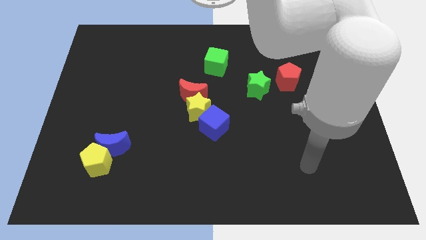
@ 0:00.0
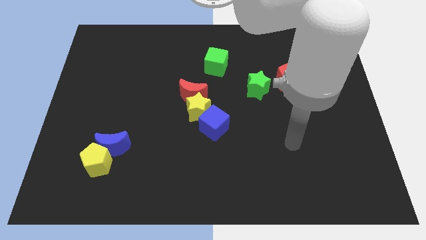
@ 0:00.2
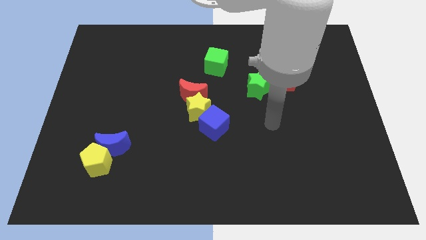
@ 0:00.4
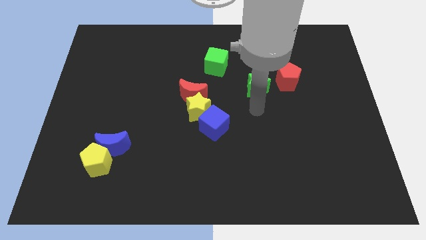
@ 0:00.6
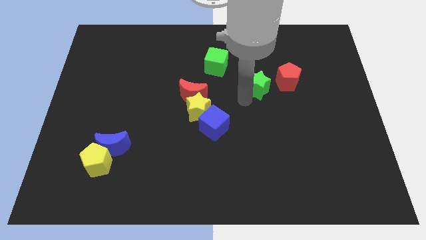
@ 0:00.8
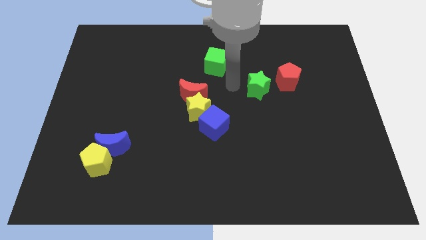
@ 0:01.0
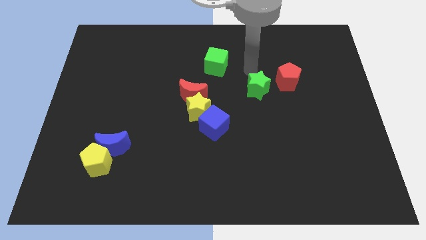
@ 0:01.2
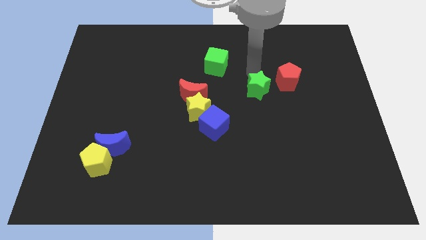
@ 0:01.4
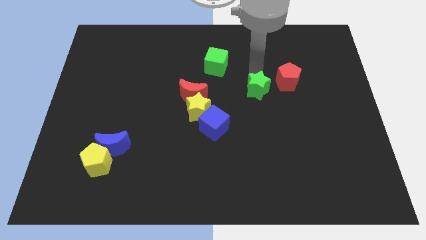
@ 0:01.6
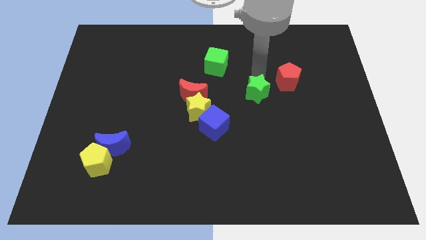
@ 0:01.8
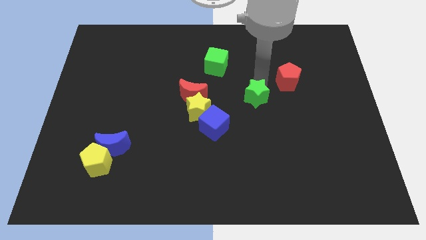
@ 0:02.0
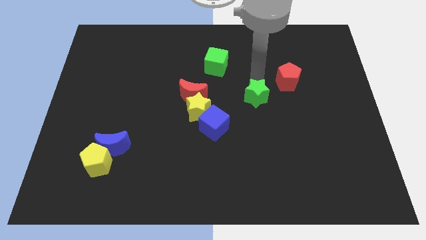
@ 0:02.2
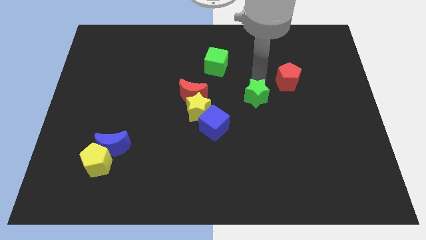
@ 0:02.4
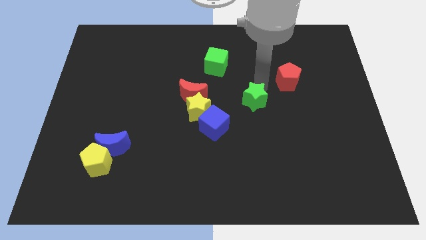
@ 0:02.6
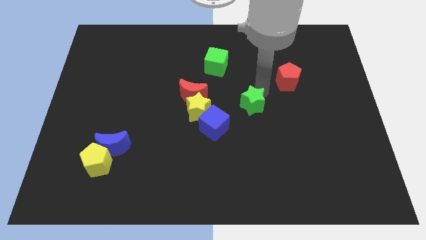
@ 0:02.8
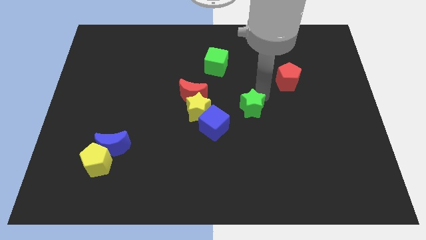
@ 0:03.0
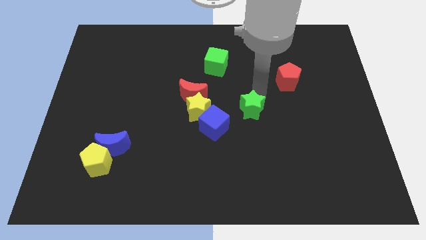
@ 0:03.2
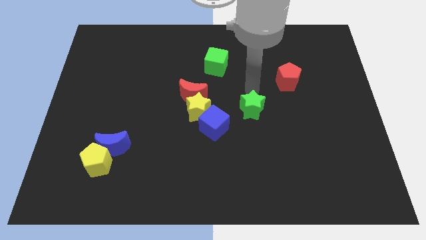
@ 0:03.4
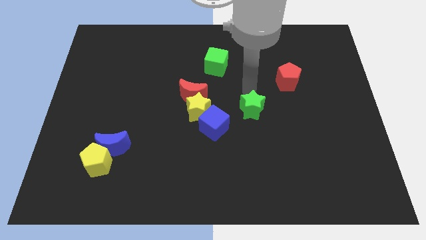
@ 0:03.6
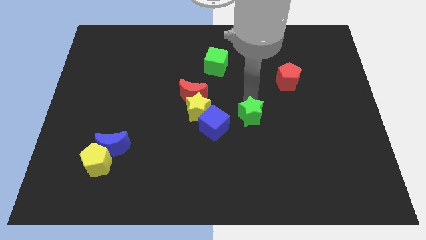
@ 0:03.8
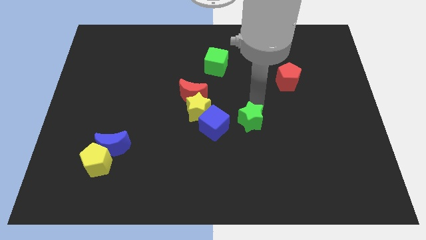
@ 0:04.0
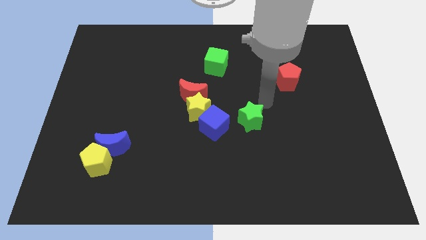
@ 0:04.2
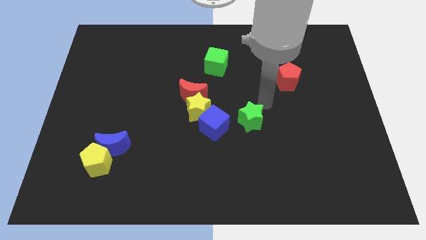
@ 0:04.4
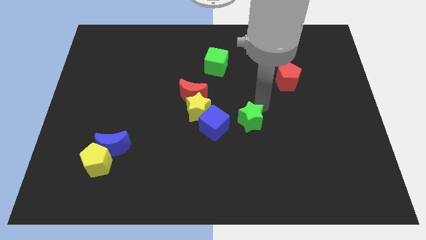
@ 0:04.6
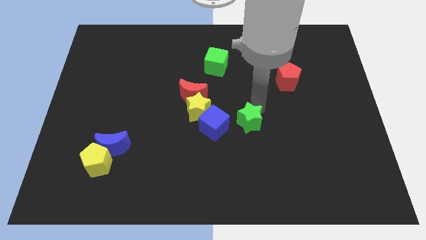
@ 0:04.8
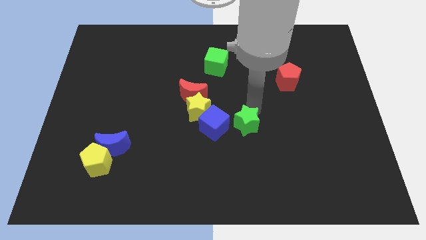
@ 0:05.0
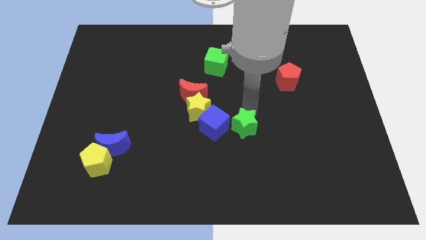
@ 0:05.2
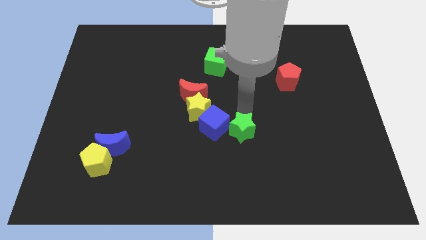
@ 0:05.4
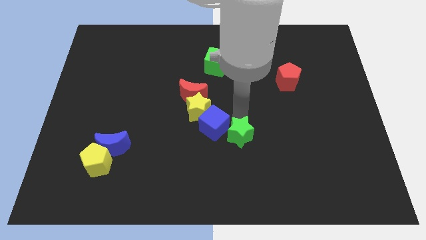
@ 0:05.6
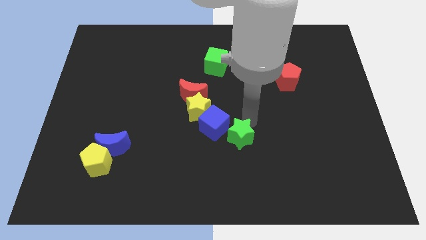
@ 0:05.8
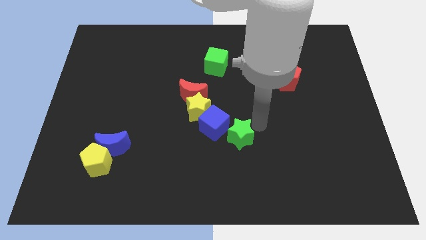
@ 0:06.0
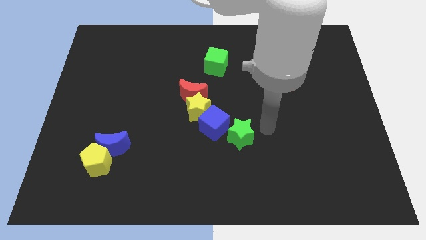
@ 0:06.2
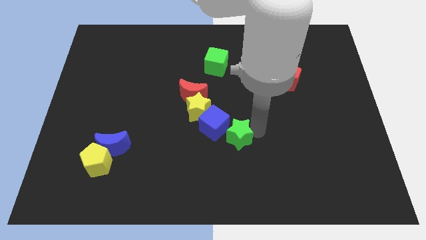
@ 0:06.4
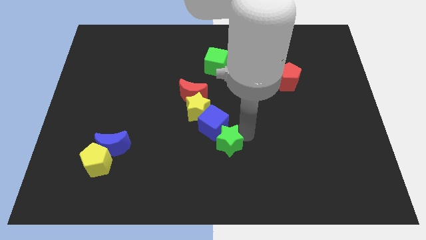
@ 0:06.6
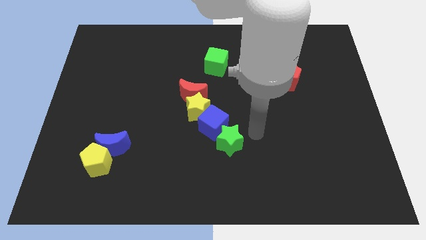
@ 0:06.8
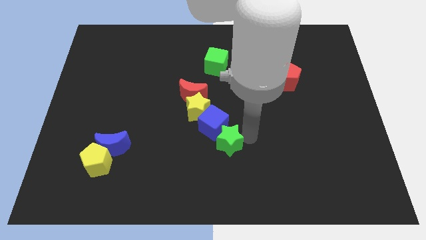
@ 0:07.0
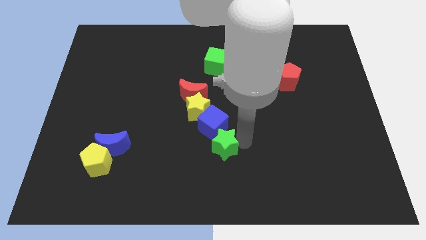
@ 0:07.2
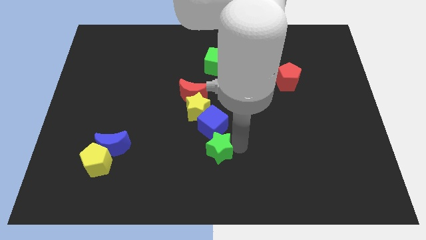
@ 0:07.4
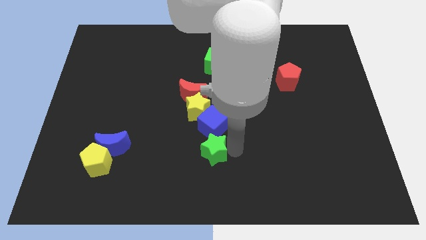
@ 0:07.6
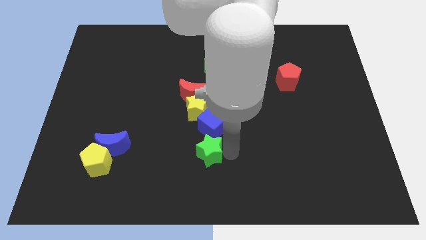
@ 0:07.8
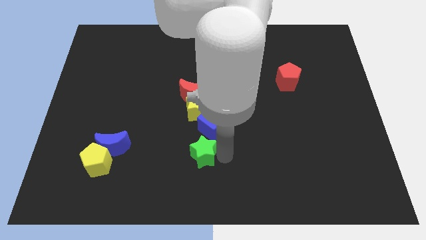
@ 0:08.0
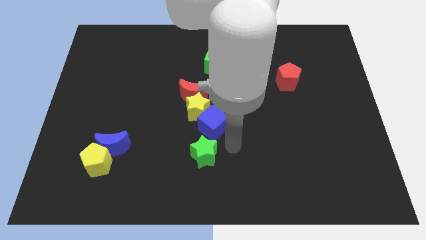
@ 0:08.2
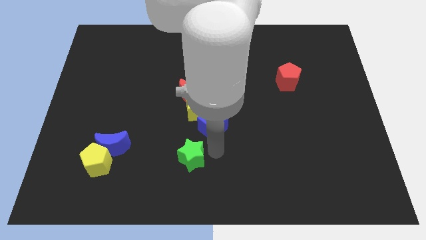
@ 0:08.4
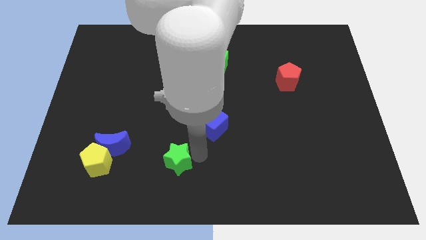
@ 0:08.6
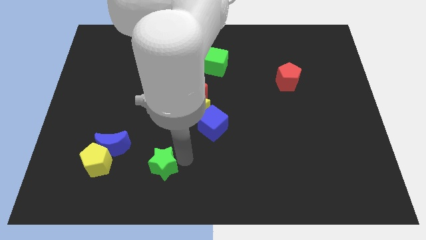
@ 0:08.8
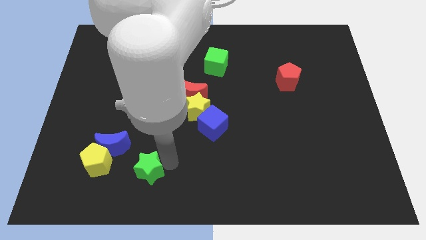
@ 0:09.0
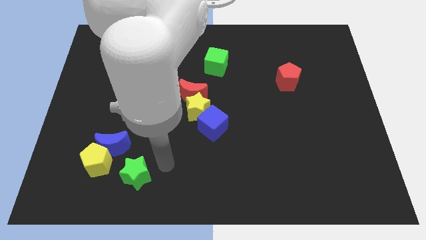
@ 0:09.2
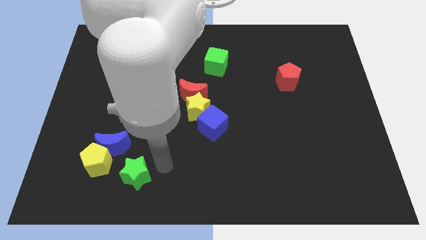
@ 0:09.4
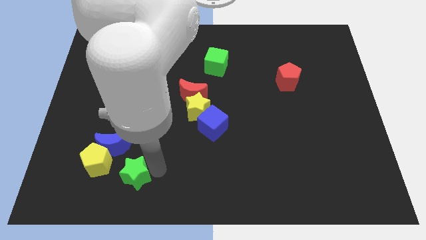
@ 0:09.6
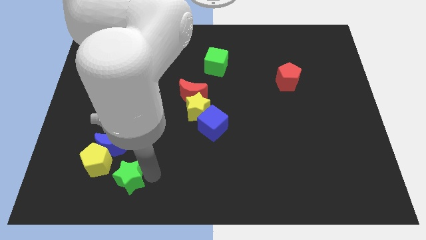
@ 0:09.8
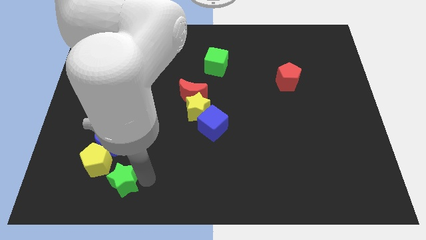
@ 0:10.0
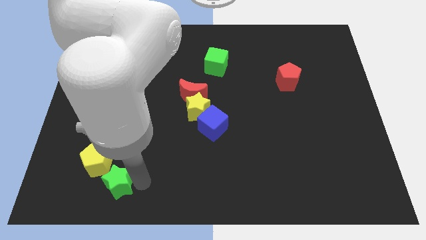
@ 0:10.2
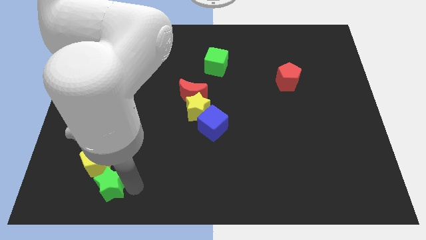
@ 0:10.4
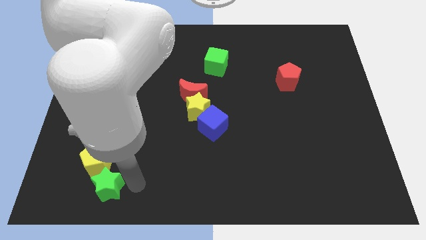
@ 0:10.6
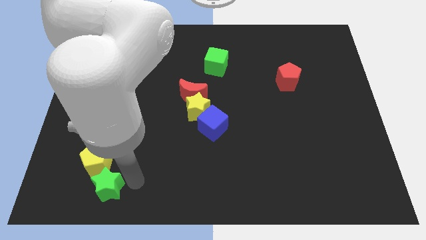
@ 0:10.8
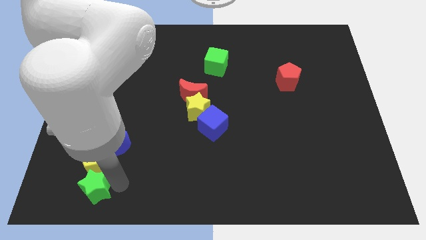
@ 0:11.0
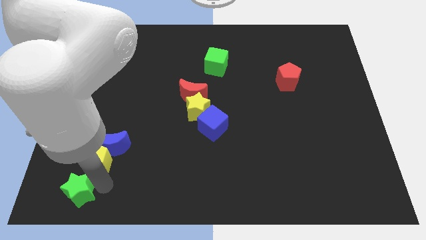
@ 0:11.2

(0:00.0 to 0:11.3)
slide the green star to the lower left corner

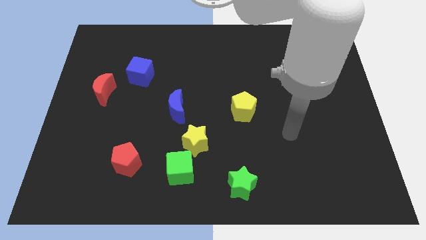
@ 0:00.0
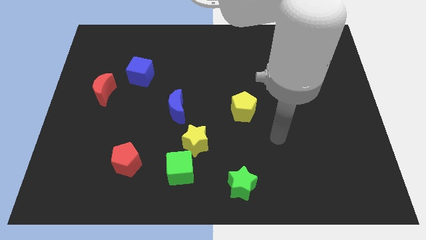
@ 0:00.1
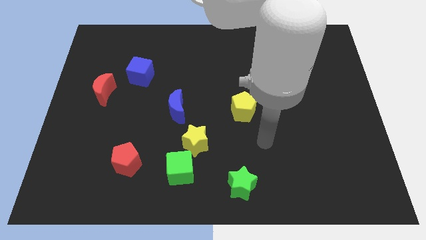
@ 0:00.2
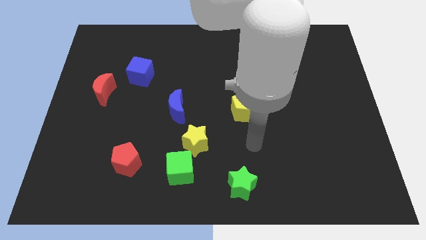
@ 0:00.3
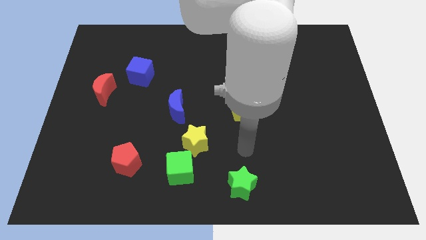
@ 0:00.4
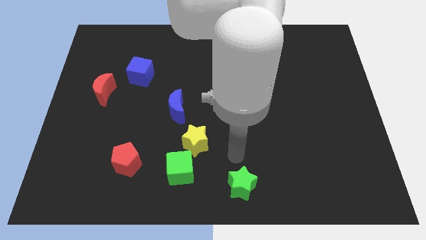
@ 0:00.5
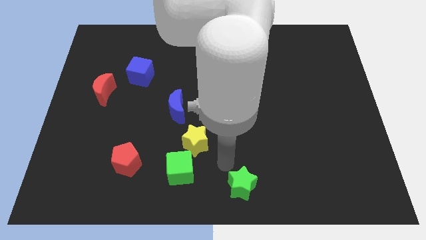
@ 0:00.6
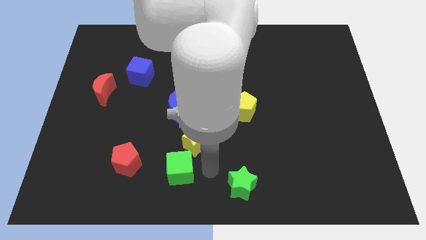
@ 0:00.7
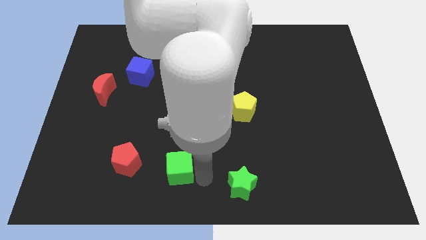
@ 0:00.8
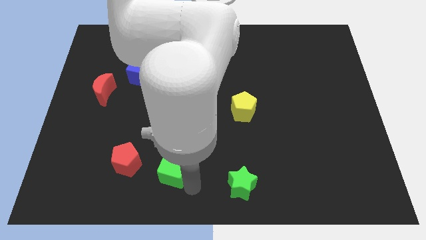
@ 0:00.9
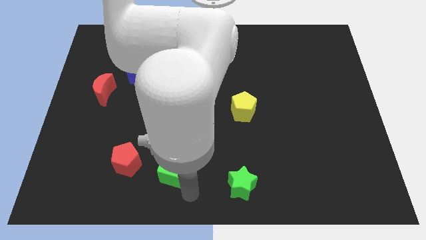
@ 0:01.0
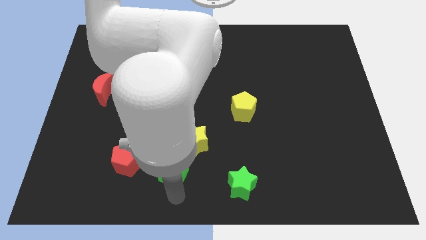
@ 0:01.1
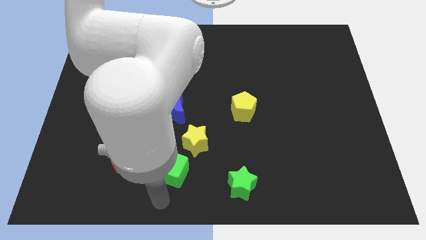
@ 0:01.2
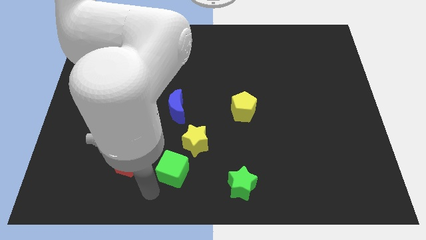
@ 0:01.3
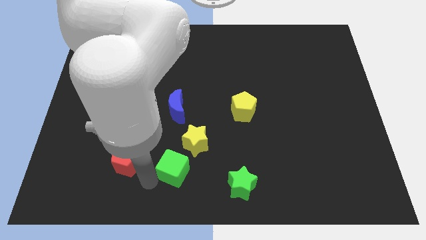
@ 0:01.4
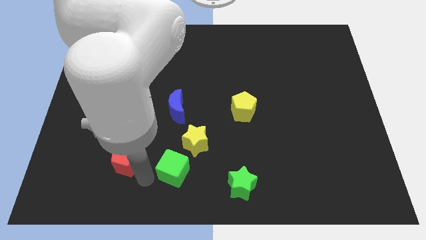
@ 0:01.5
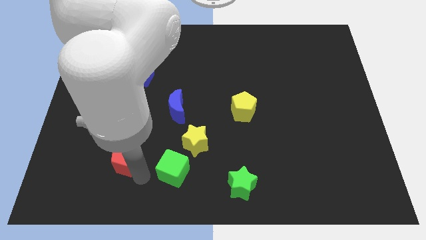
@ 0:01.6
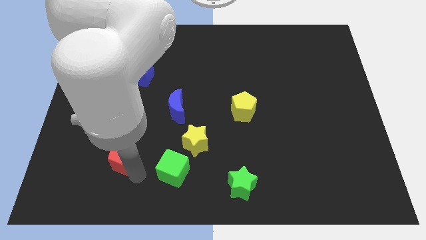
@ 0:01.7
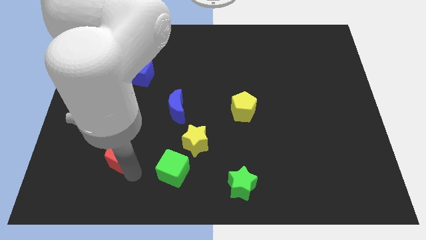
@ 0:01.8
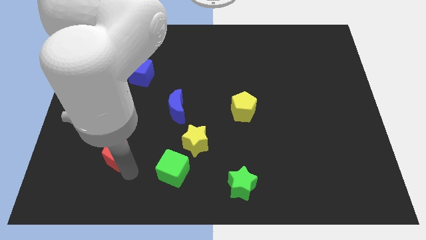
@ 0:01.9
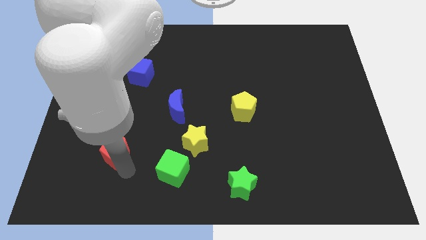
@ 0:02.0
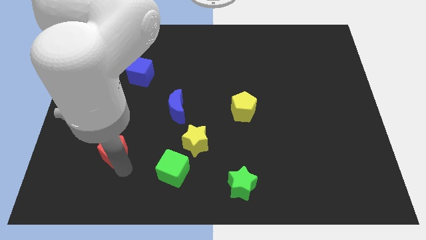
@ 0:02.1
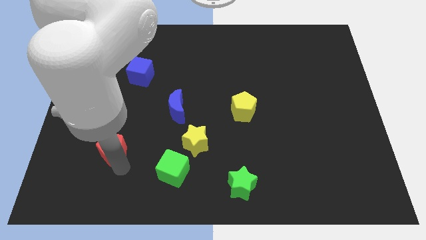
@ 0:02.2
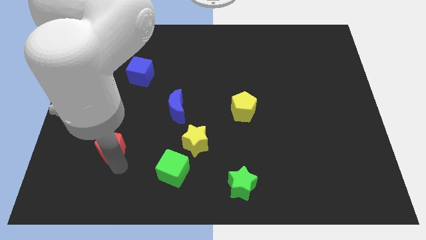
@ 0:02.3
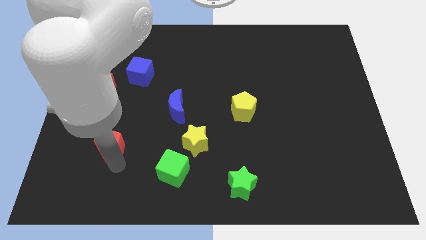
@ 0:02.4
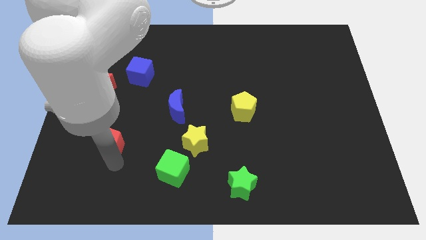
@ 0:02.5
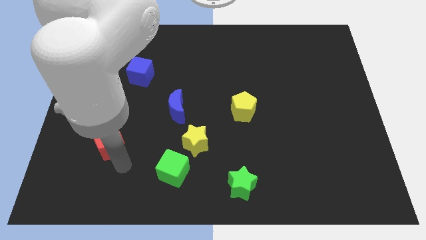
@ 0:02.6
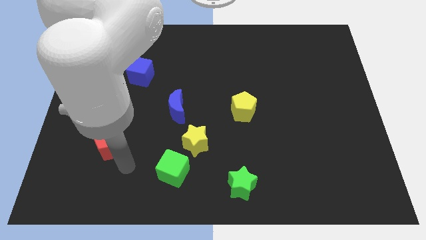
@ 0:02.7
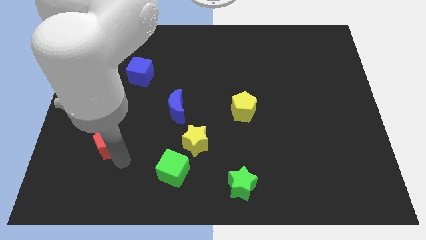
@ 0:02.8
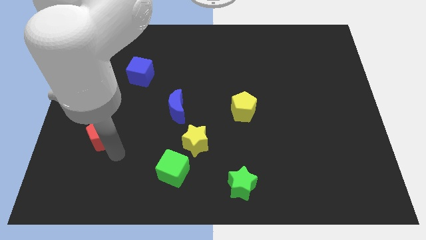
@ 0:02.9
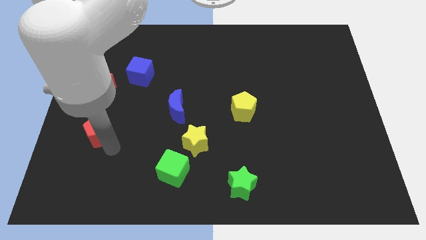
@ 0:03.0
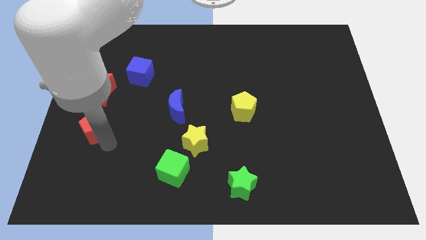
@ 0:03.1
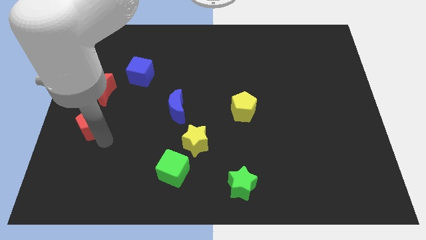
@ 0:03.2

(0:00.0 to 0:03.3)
move the red pentagon to the left side of the board
